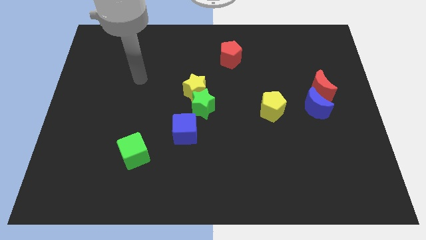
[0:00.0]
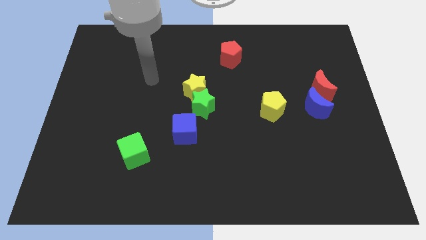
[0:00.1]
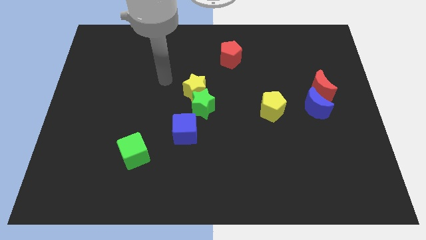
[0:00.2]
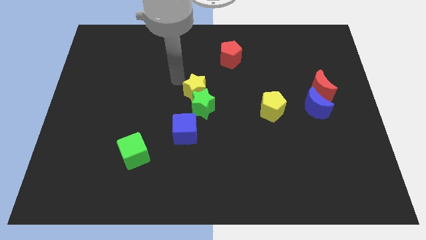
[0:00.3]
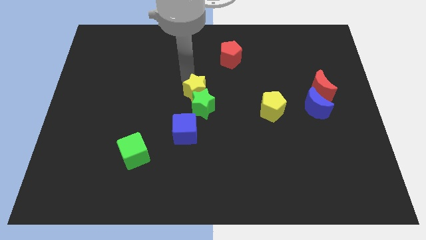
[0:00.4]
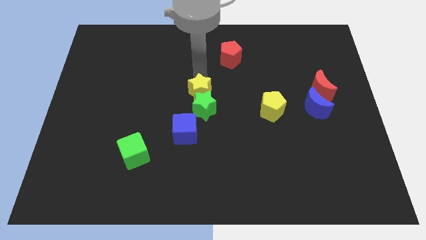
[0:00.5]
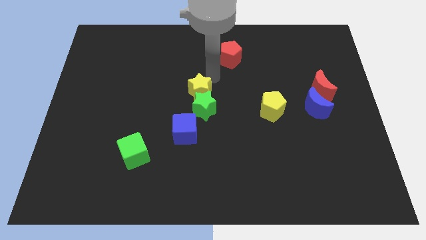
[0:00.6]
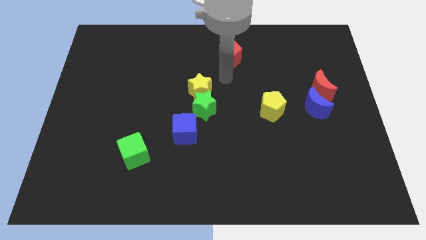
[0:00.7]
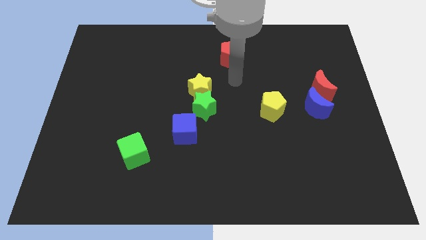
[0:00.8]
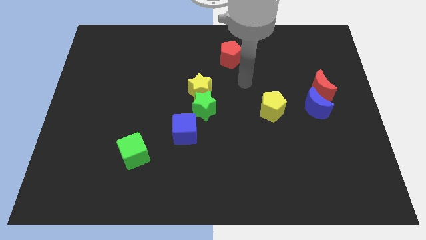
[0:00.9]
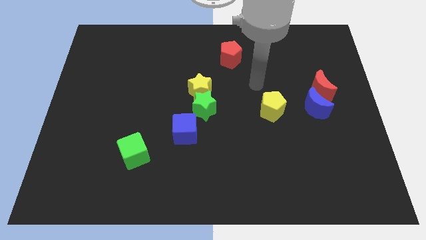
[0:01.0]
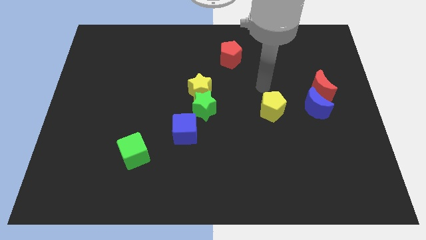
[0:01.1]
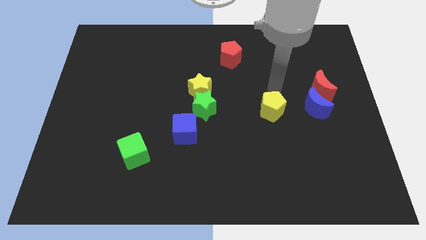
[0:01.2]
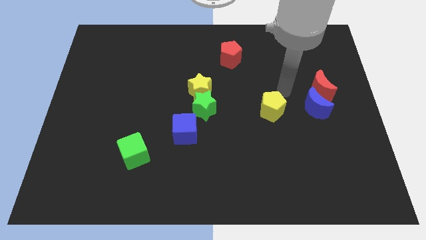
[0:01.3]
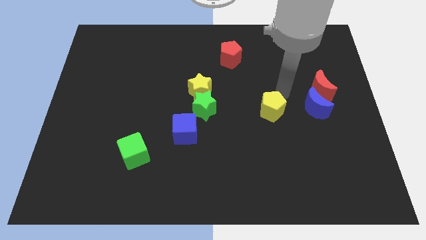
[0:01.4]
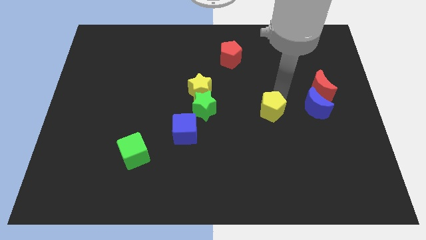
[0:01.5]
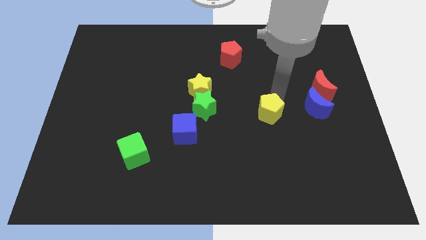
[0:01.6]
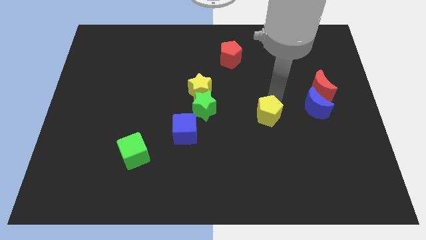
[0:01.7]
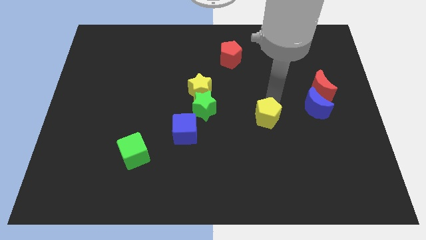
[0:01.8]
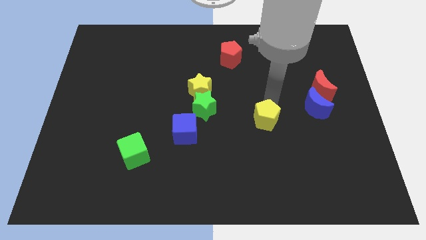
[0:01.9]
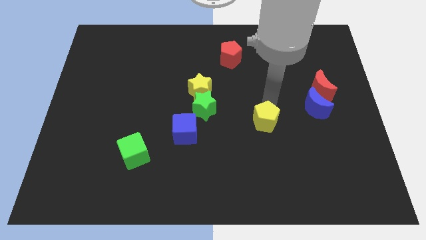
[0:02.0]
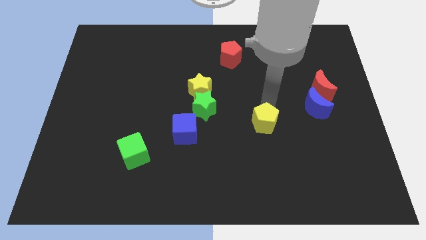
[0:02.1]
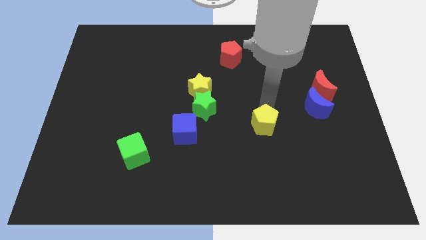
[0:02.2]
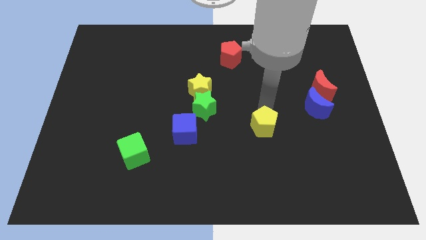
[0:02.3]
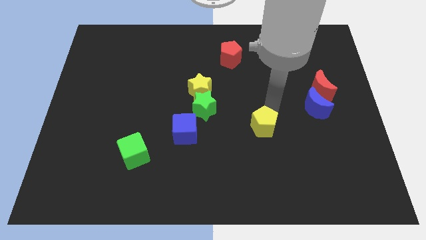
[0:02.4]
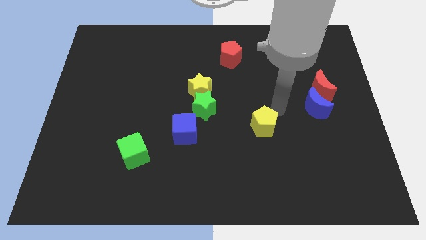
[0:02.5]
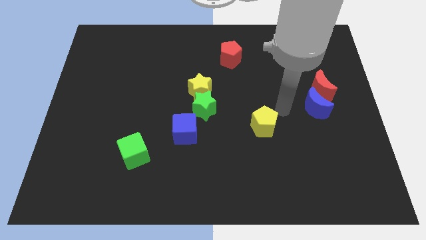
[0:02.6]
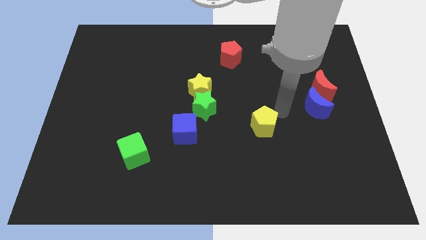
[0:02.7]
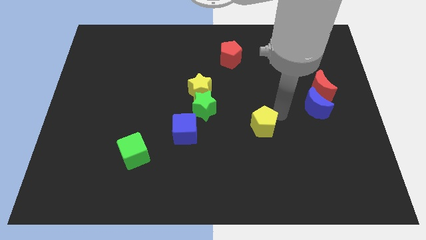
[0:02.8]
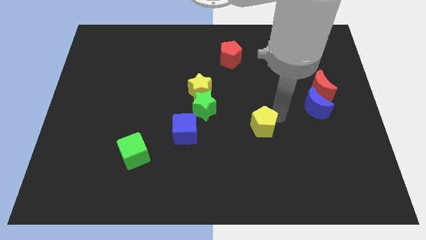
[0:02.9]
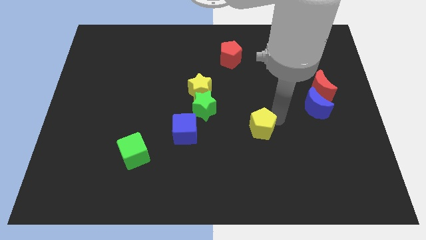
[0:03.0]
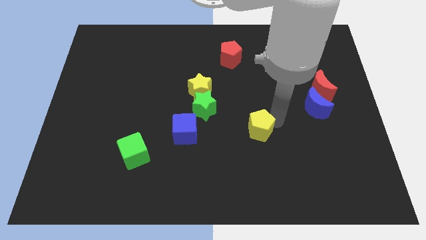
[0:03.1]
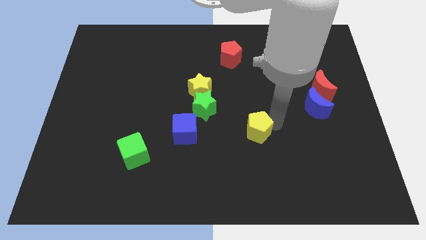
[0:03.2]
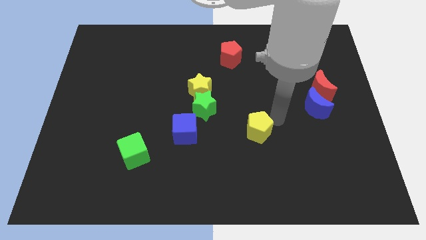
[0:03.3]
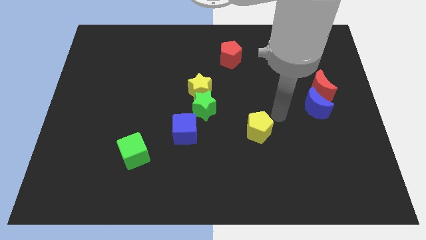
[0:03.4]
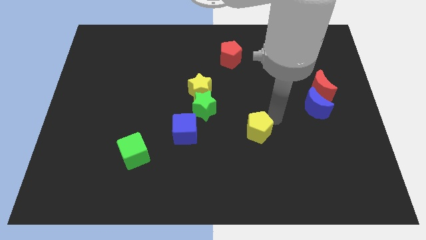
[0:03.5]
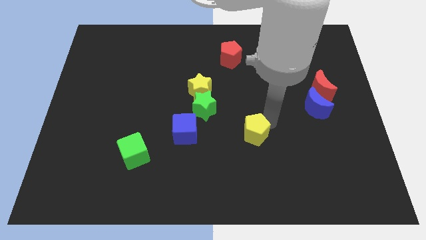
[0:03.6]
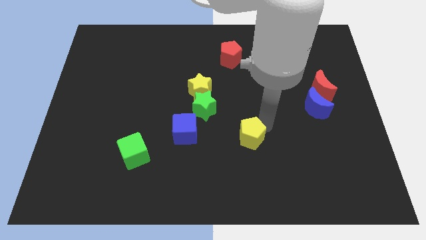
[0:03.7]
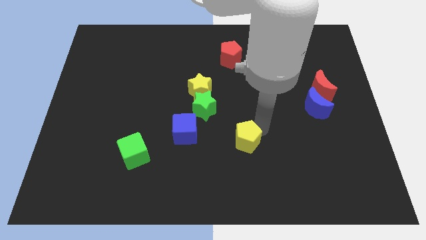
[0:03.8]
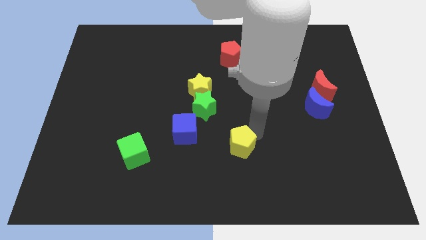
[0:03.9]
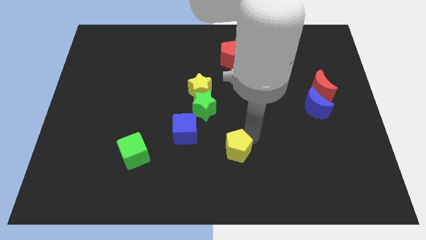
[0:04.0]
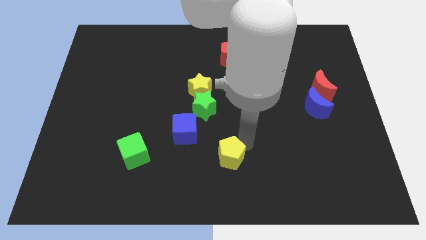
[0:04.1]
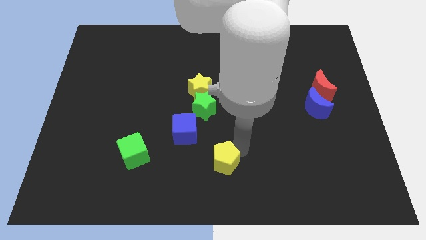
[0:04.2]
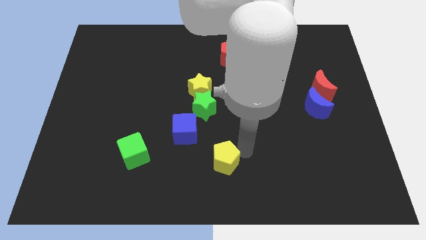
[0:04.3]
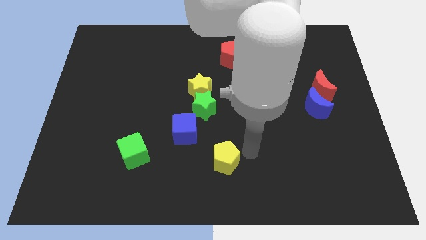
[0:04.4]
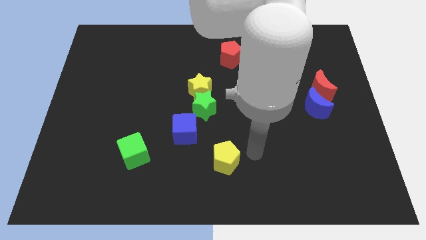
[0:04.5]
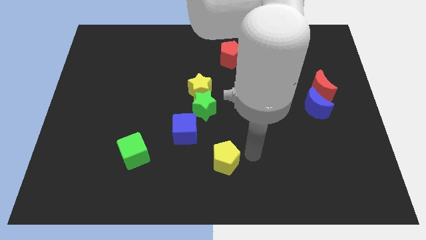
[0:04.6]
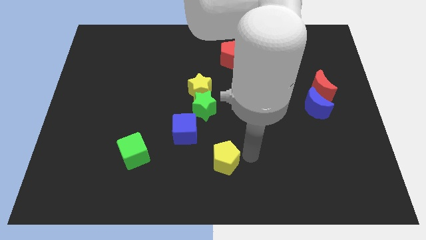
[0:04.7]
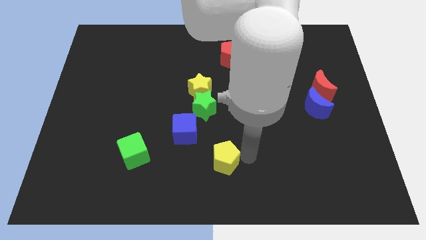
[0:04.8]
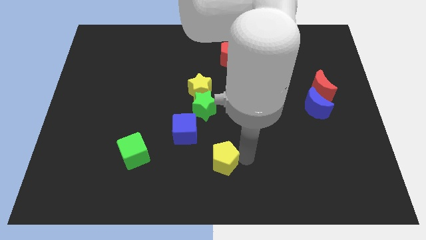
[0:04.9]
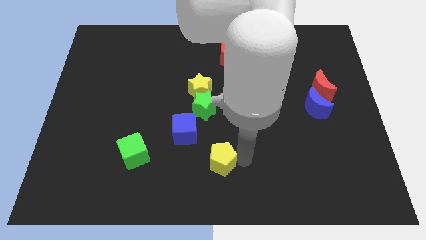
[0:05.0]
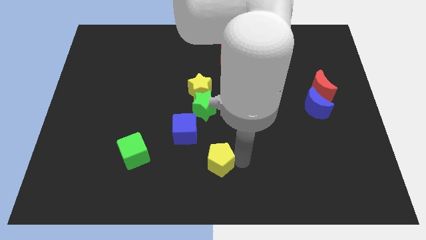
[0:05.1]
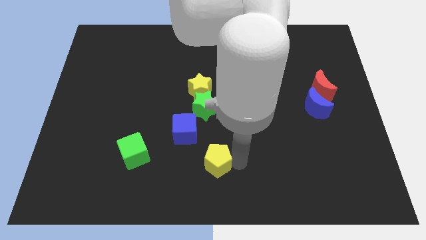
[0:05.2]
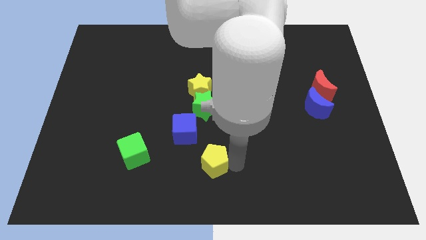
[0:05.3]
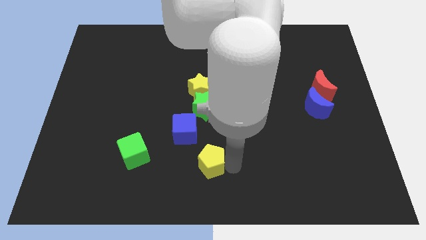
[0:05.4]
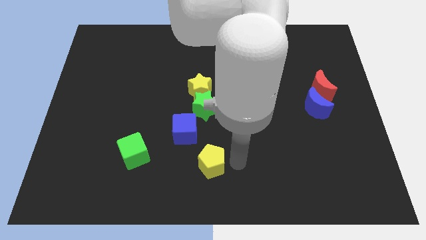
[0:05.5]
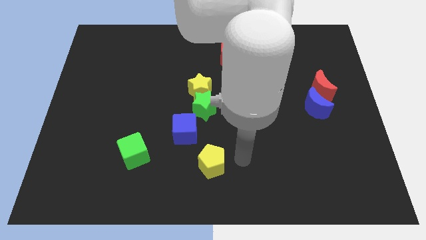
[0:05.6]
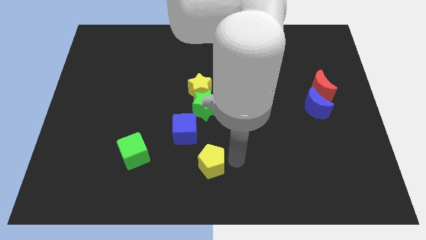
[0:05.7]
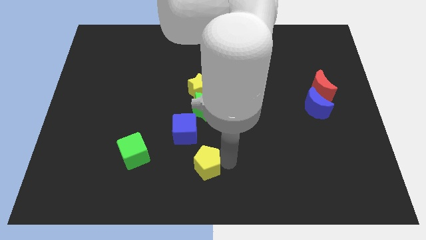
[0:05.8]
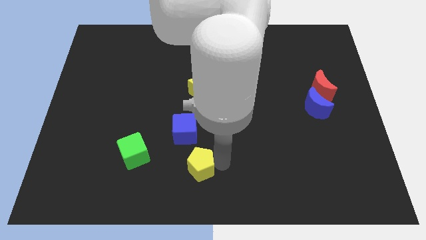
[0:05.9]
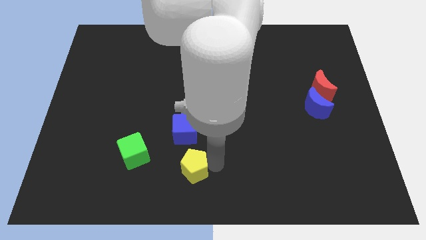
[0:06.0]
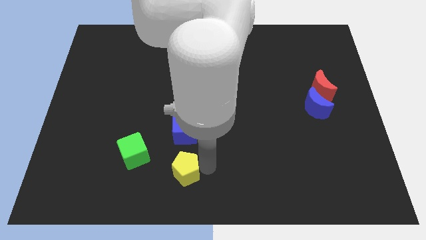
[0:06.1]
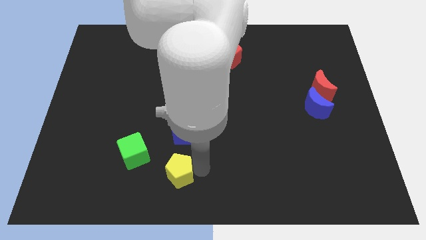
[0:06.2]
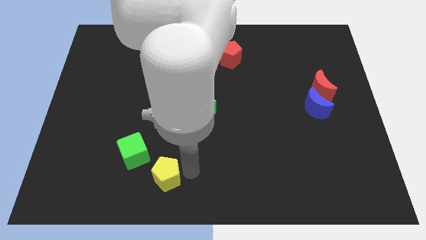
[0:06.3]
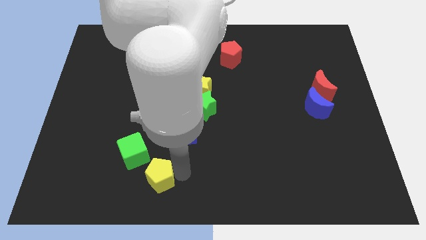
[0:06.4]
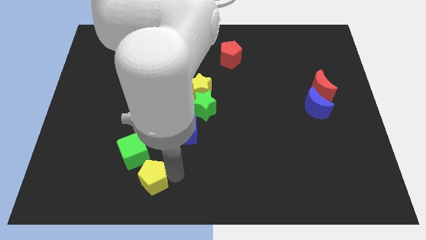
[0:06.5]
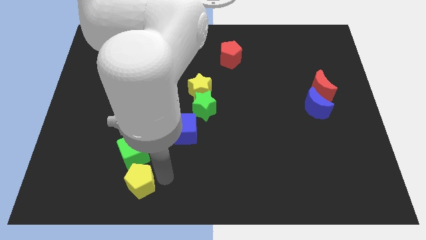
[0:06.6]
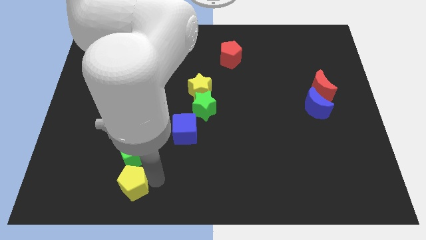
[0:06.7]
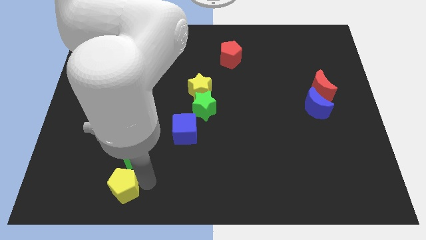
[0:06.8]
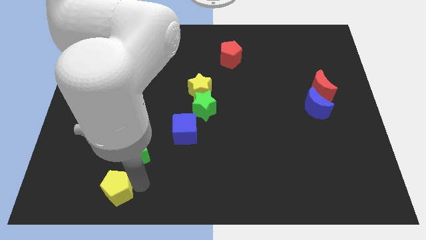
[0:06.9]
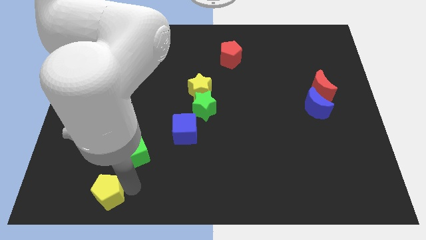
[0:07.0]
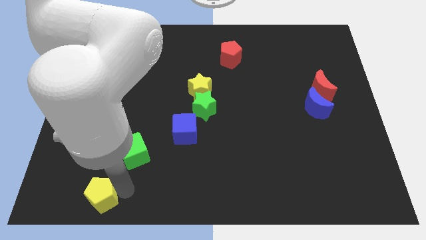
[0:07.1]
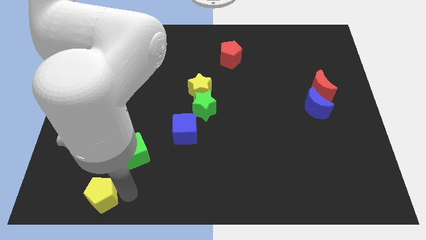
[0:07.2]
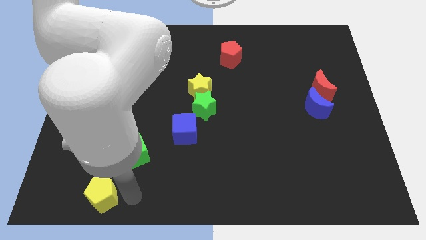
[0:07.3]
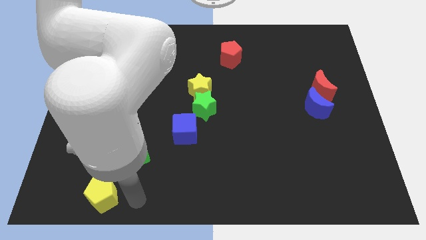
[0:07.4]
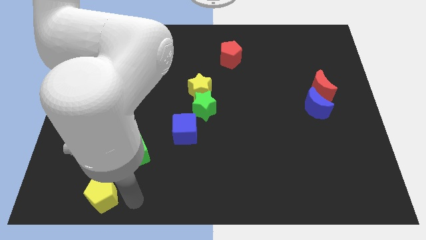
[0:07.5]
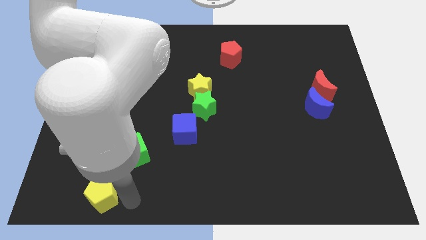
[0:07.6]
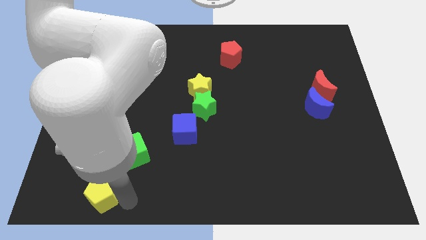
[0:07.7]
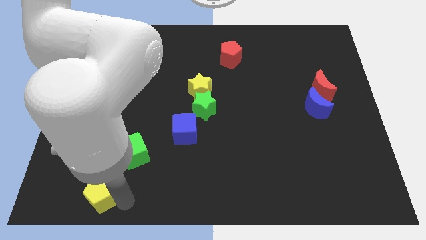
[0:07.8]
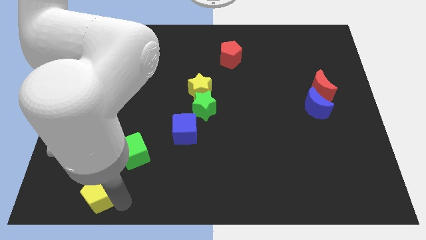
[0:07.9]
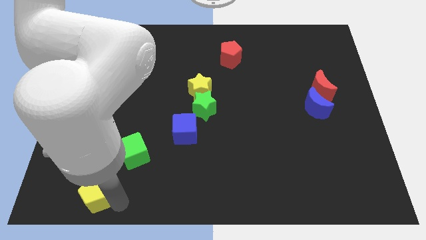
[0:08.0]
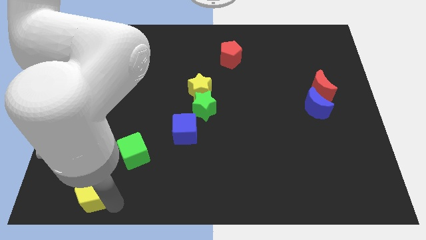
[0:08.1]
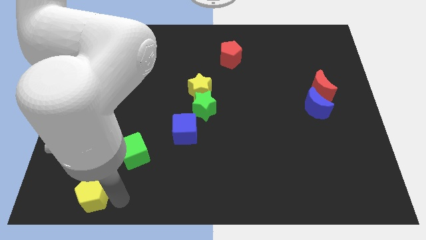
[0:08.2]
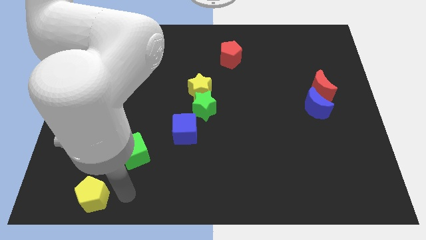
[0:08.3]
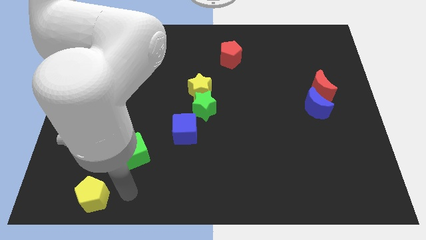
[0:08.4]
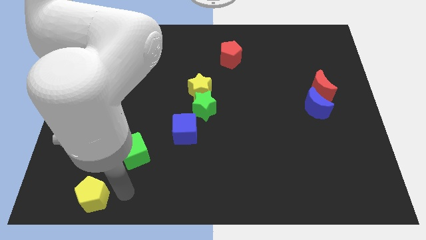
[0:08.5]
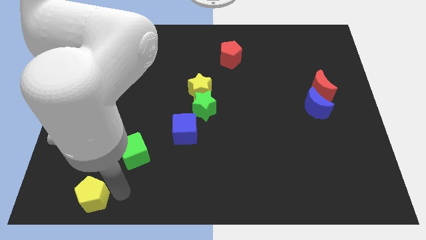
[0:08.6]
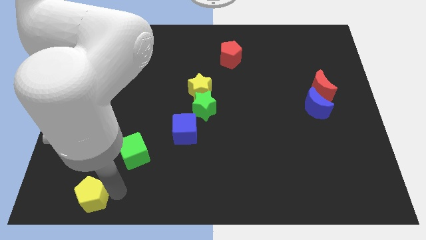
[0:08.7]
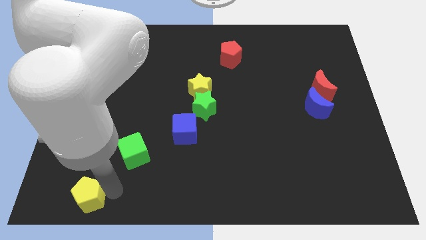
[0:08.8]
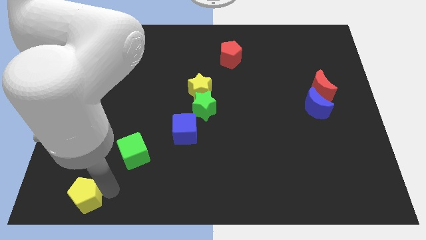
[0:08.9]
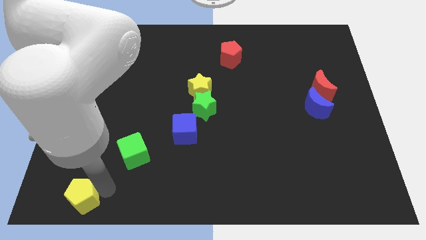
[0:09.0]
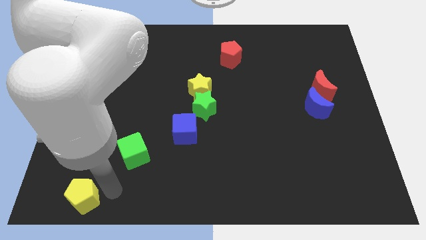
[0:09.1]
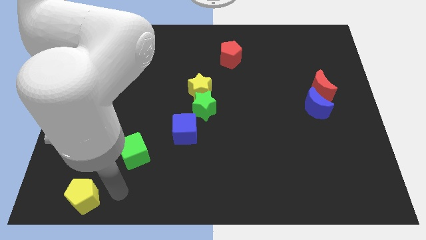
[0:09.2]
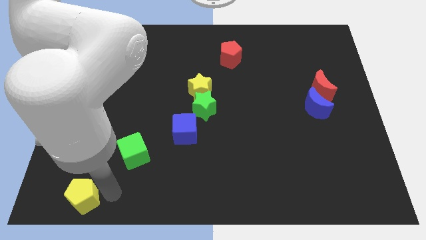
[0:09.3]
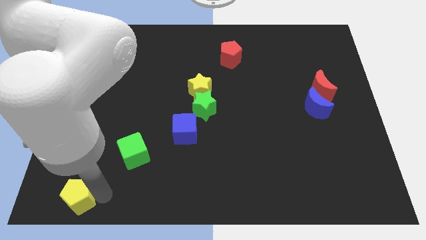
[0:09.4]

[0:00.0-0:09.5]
put the yellow pentagon to the bottom left
